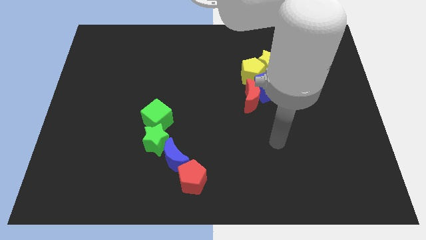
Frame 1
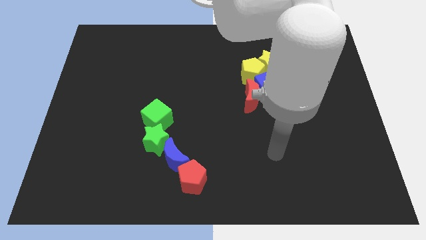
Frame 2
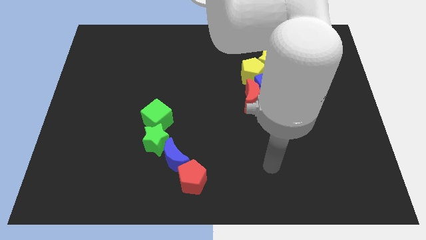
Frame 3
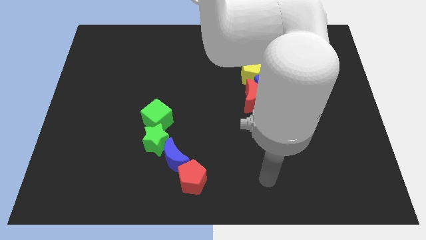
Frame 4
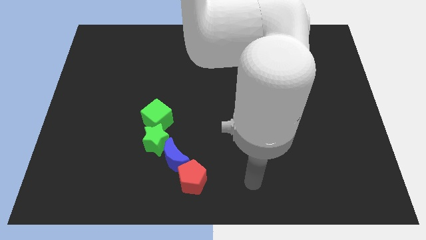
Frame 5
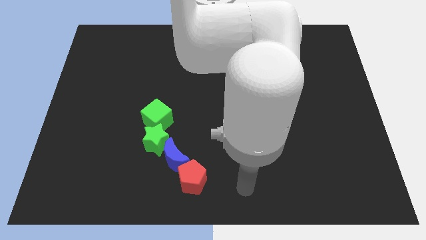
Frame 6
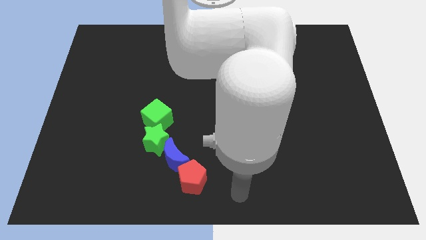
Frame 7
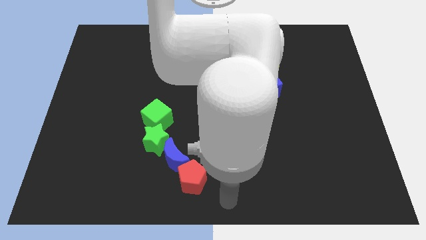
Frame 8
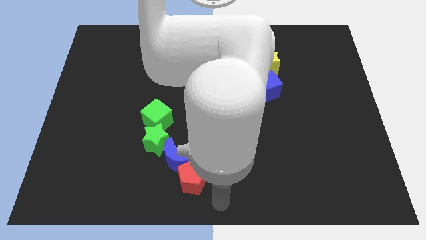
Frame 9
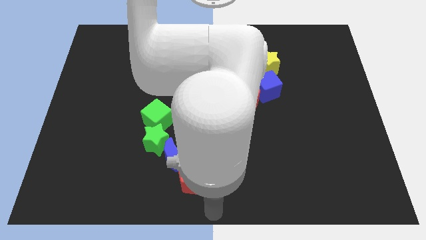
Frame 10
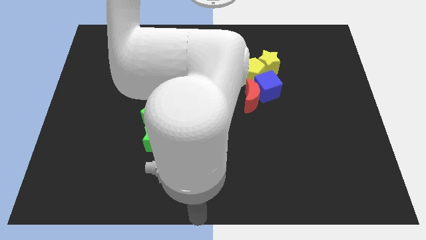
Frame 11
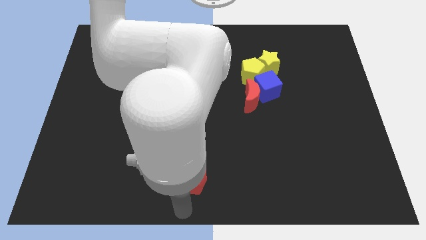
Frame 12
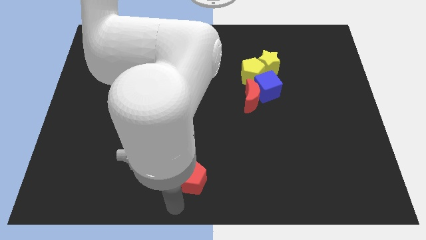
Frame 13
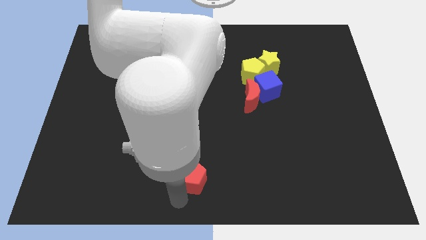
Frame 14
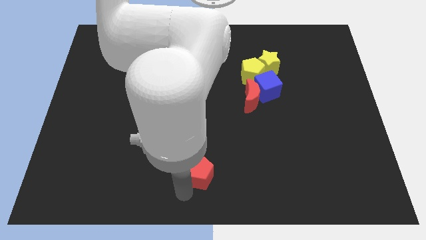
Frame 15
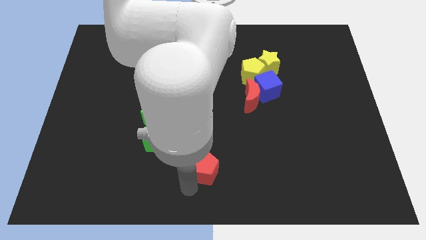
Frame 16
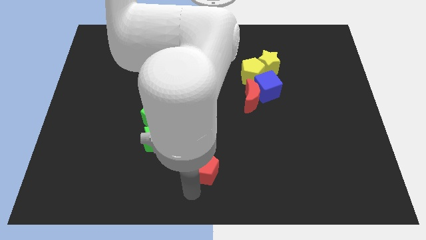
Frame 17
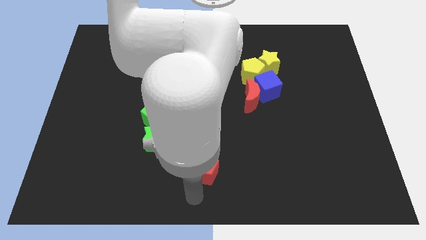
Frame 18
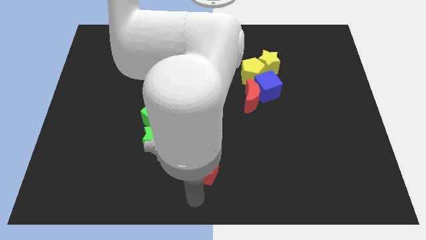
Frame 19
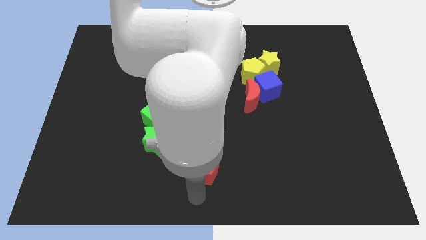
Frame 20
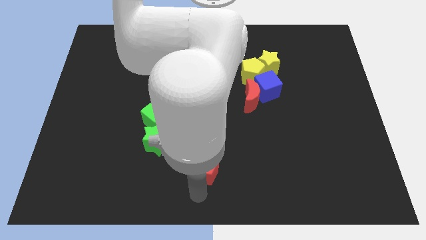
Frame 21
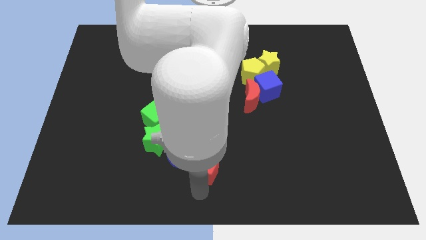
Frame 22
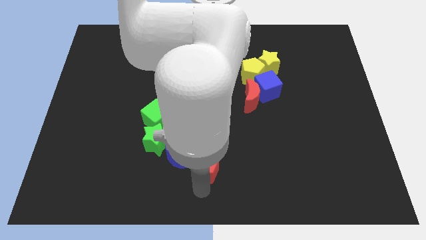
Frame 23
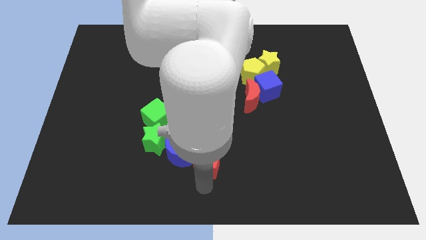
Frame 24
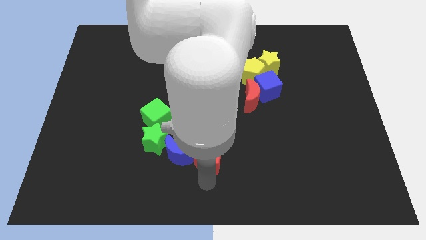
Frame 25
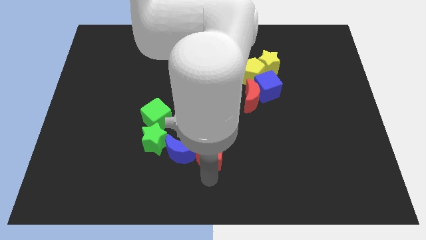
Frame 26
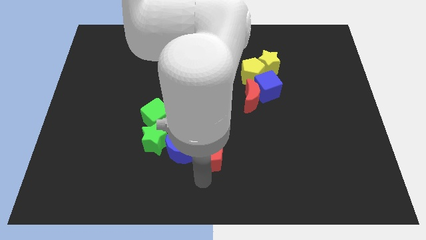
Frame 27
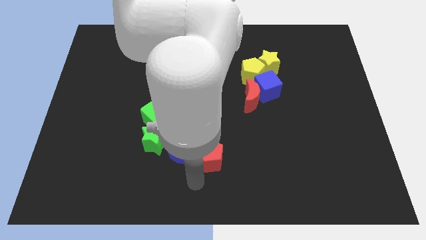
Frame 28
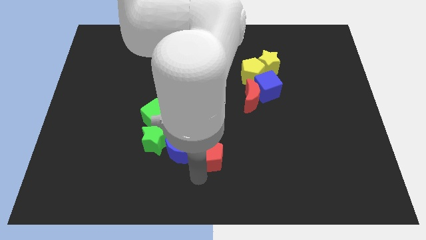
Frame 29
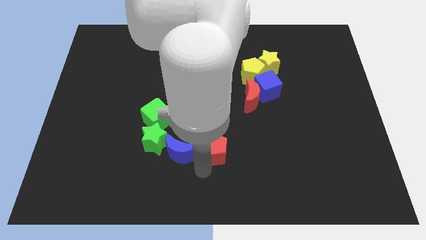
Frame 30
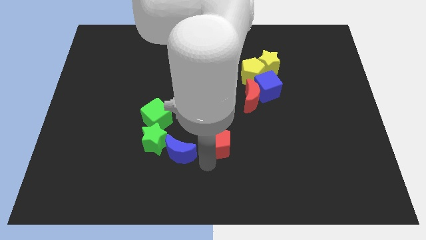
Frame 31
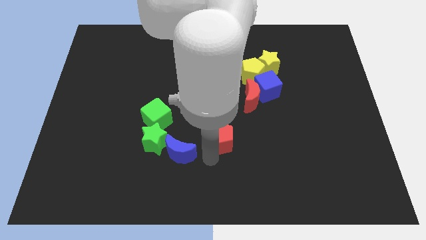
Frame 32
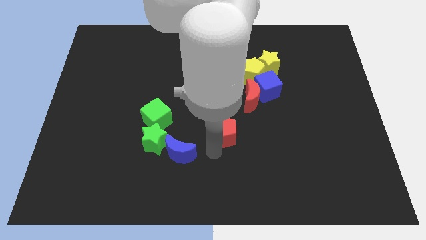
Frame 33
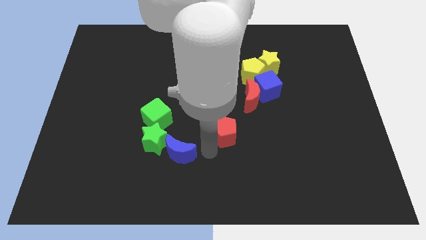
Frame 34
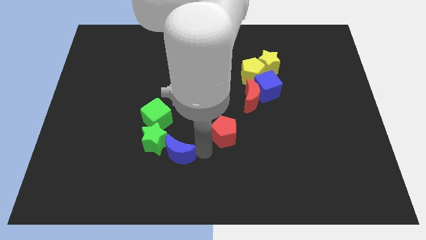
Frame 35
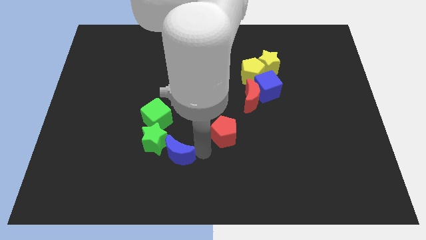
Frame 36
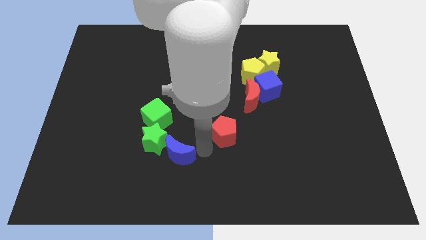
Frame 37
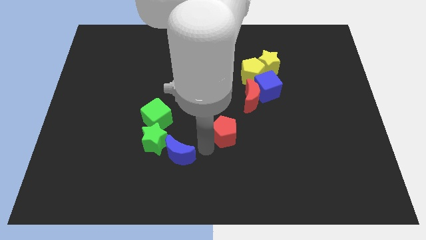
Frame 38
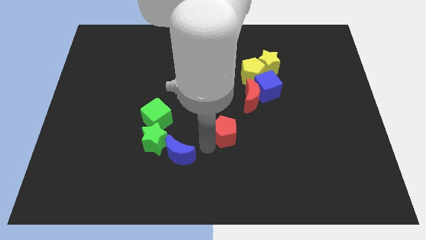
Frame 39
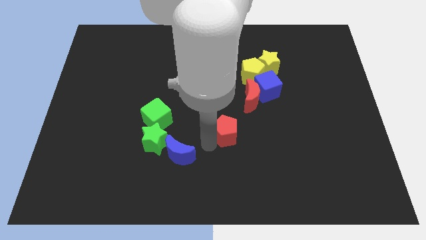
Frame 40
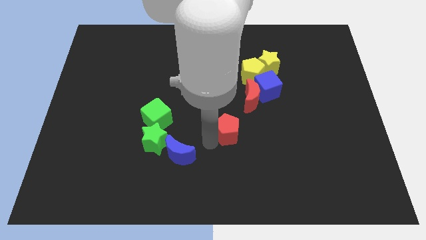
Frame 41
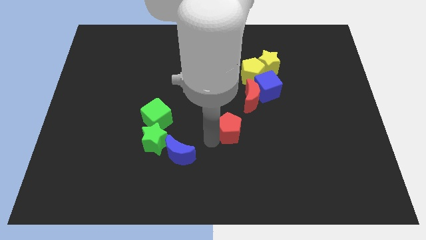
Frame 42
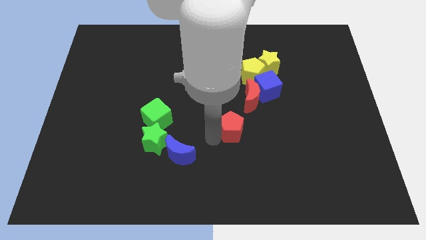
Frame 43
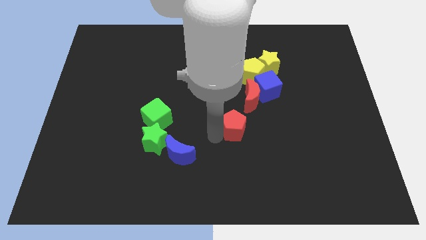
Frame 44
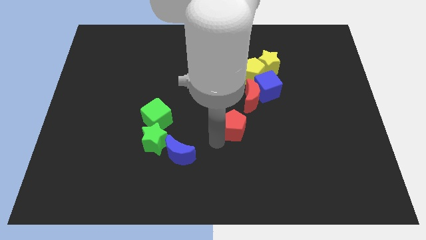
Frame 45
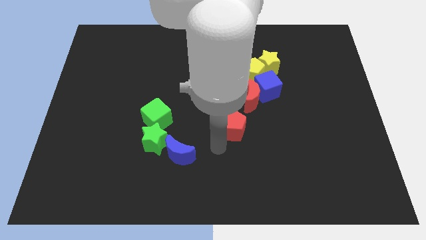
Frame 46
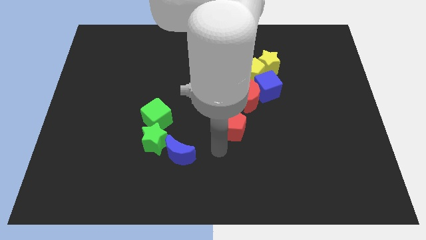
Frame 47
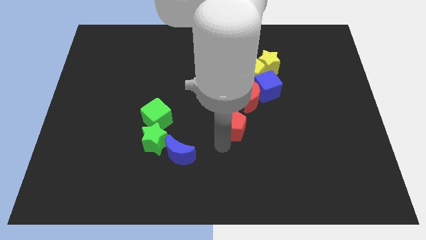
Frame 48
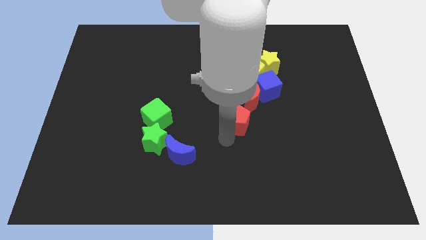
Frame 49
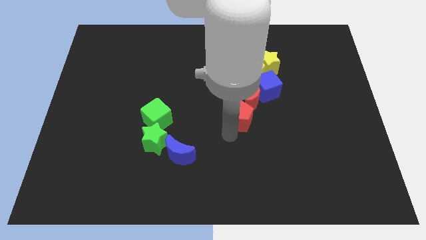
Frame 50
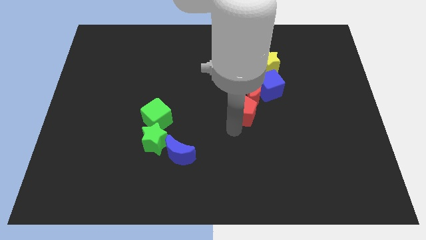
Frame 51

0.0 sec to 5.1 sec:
put the red pentagon close to the red moon

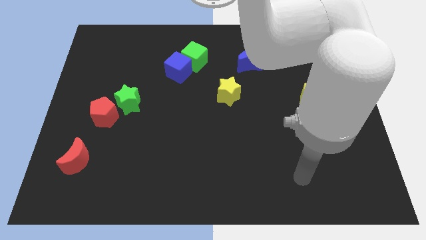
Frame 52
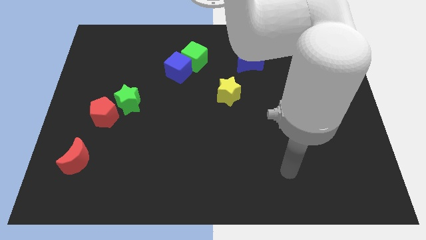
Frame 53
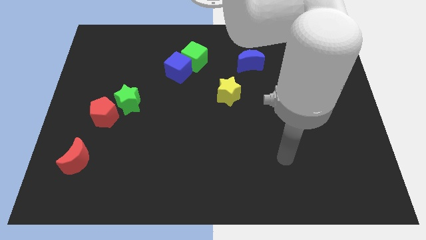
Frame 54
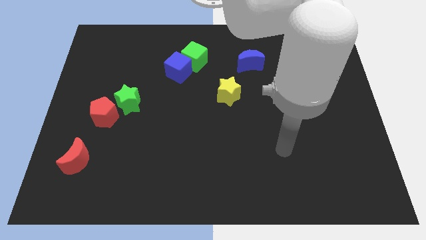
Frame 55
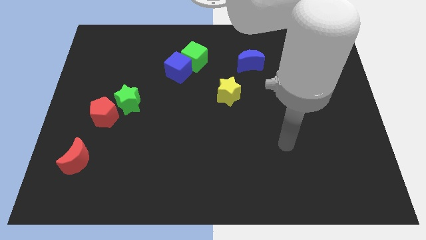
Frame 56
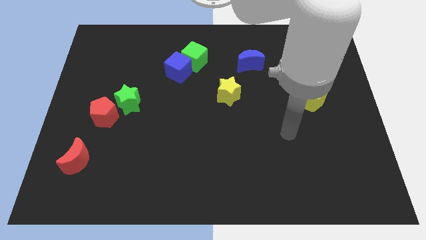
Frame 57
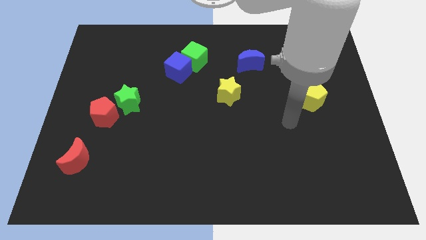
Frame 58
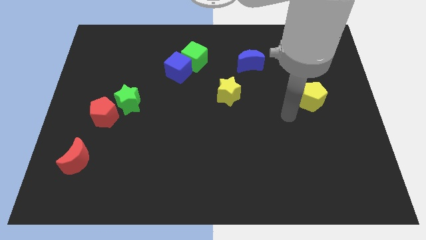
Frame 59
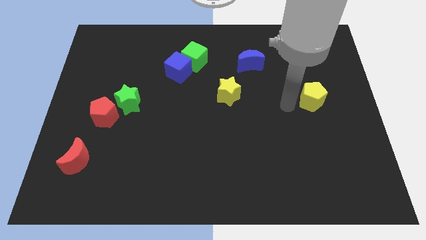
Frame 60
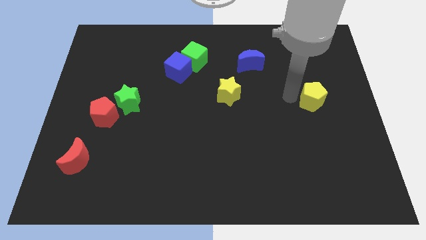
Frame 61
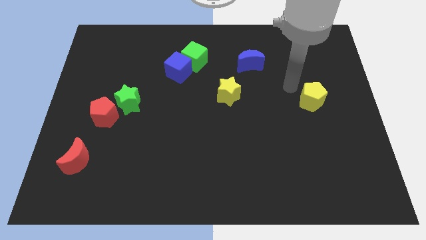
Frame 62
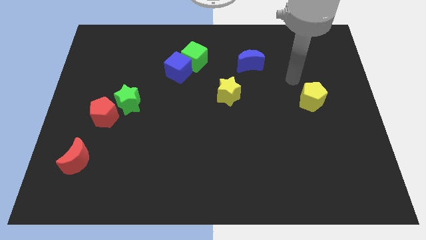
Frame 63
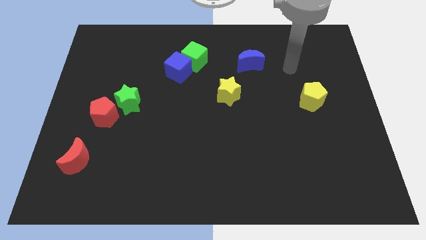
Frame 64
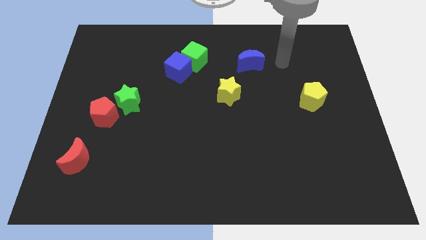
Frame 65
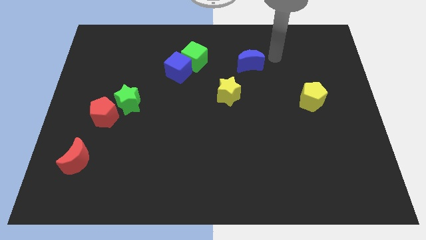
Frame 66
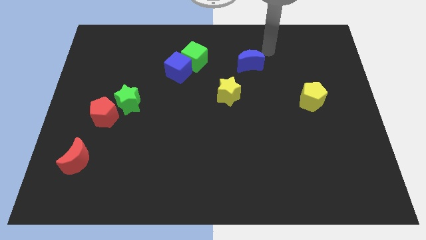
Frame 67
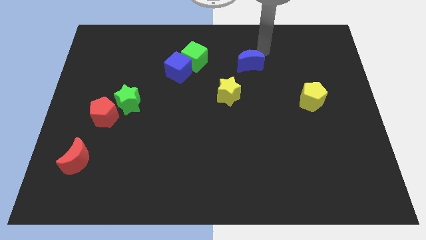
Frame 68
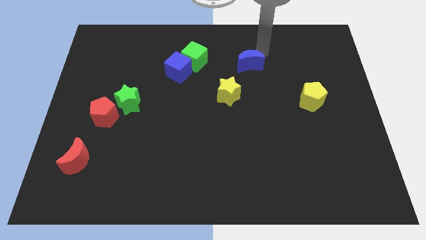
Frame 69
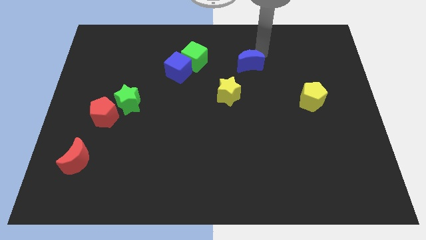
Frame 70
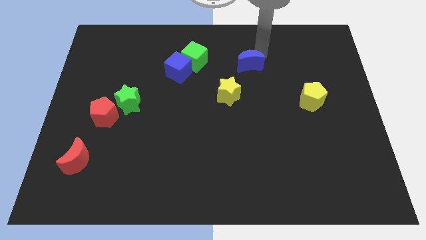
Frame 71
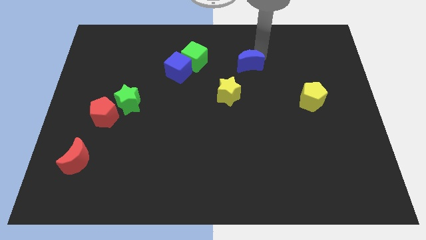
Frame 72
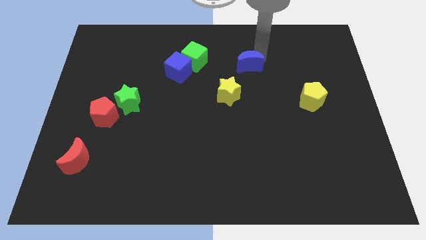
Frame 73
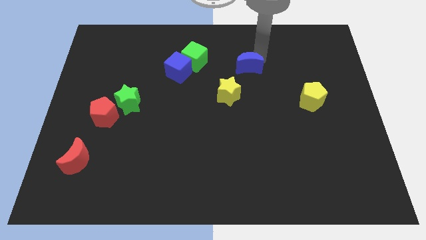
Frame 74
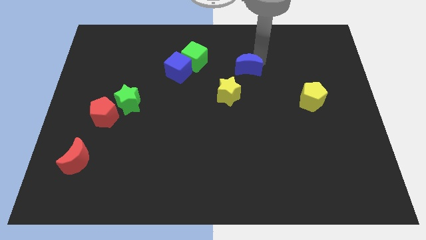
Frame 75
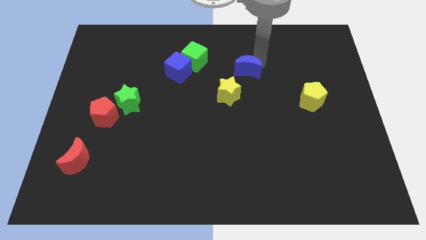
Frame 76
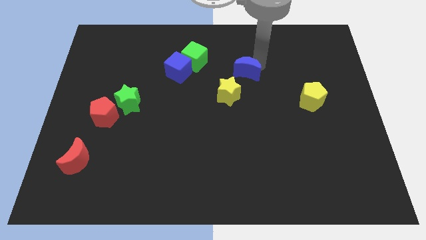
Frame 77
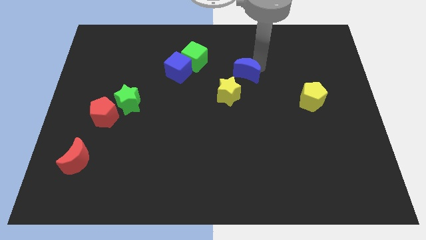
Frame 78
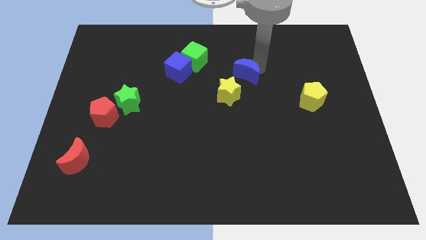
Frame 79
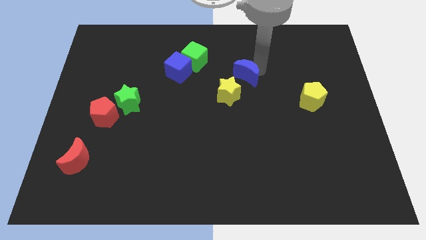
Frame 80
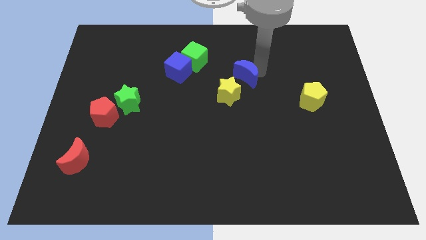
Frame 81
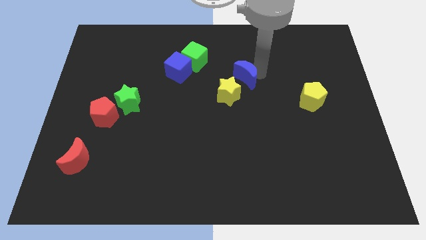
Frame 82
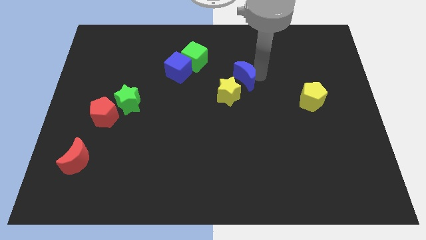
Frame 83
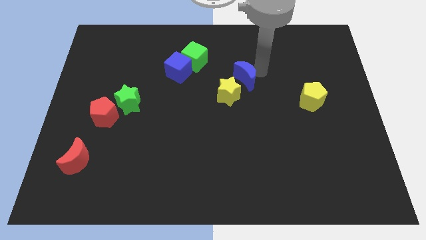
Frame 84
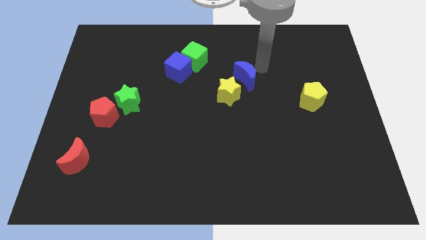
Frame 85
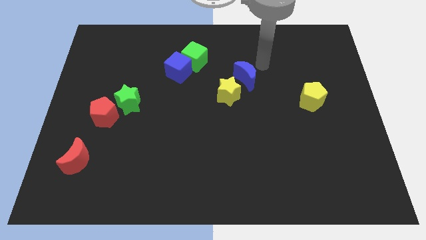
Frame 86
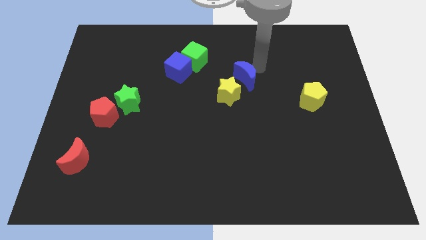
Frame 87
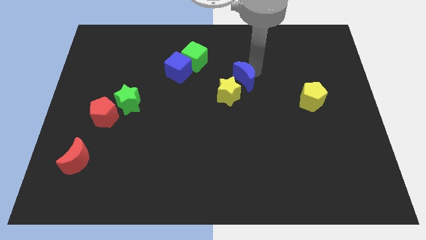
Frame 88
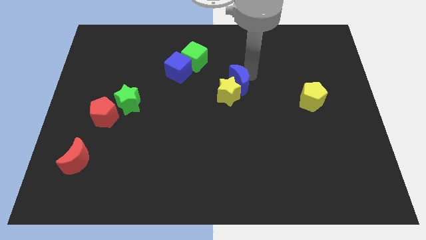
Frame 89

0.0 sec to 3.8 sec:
put the blue moon close to the yellow star
